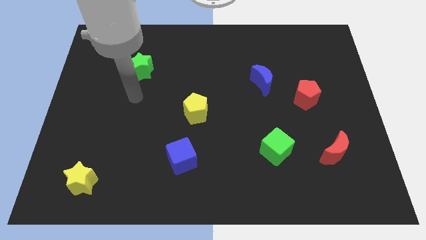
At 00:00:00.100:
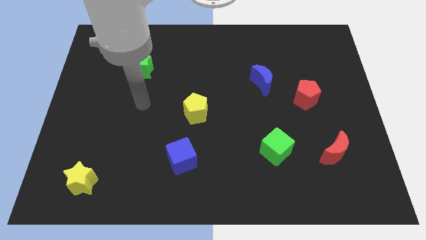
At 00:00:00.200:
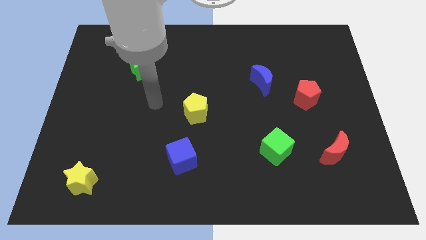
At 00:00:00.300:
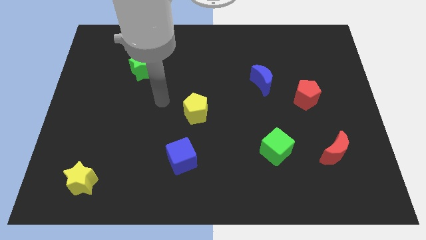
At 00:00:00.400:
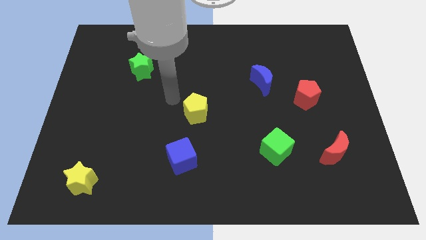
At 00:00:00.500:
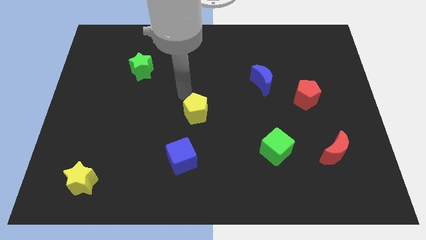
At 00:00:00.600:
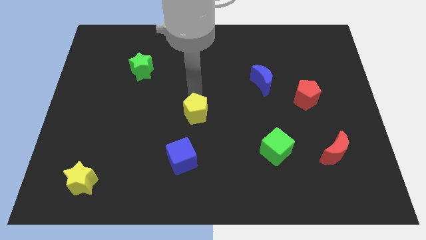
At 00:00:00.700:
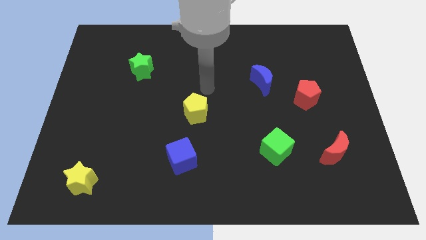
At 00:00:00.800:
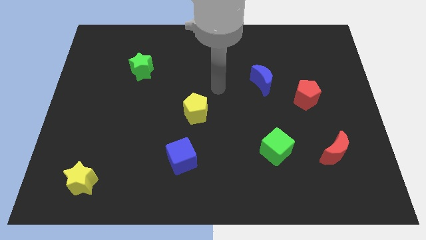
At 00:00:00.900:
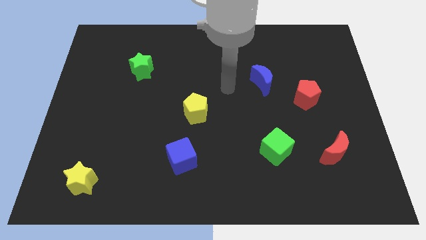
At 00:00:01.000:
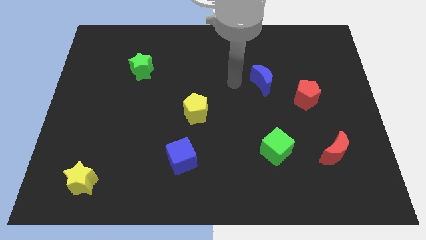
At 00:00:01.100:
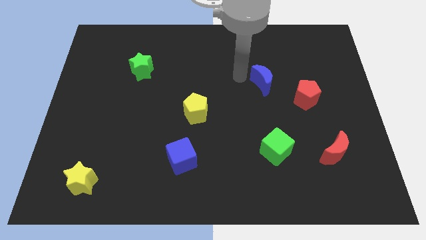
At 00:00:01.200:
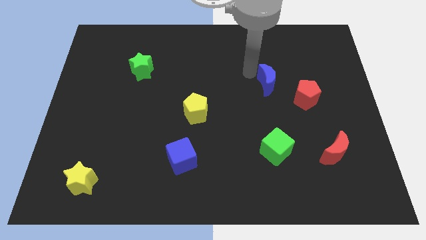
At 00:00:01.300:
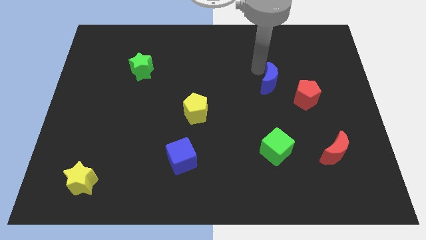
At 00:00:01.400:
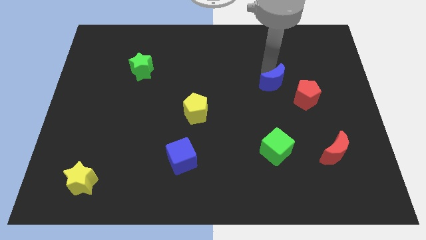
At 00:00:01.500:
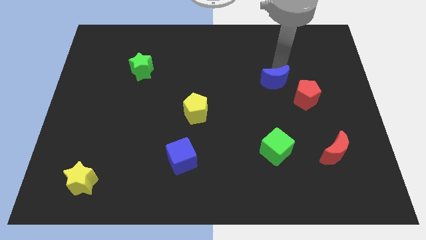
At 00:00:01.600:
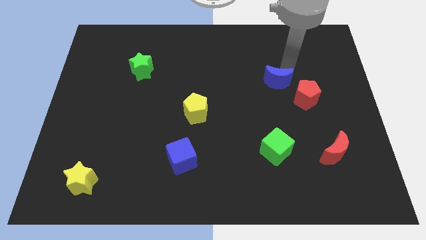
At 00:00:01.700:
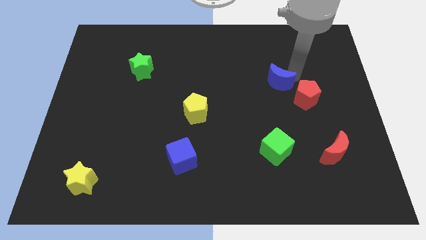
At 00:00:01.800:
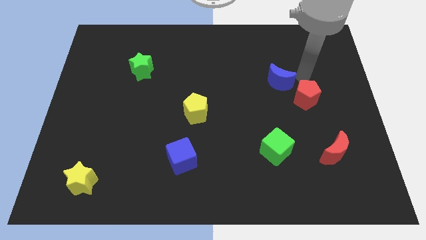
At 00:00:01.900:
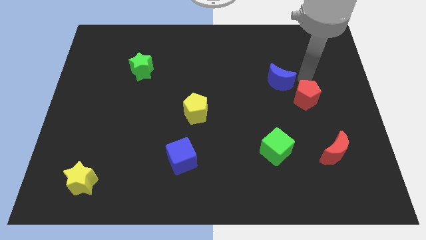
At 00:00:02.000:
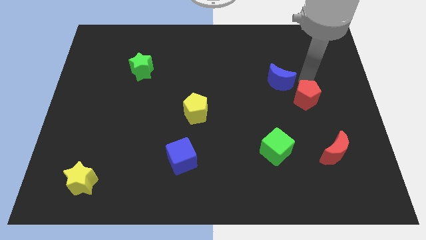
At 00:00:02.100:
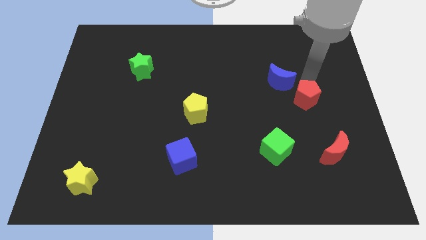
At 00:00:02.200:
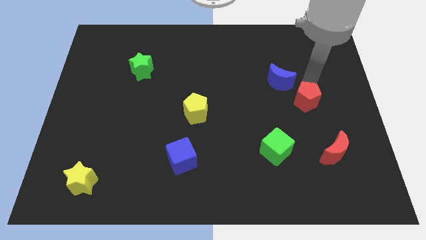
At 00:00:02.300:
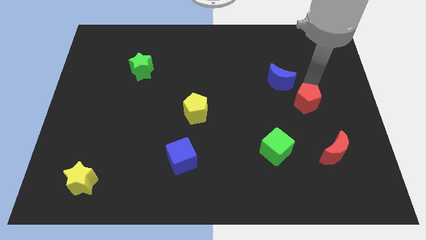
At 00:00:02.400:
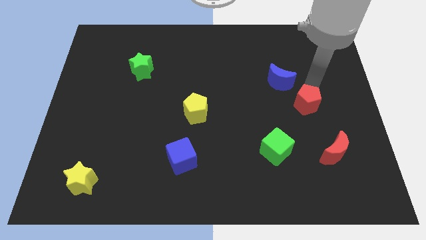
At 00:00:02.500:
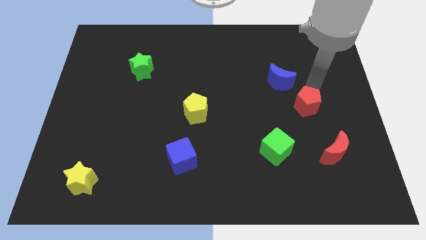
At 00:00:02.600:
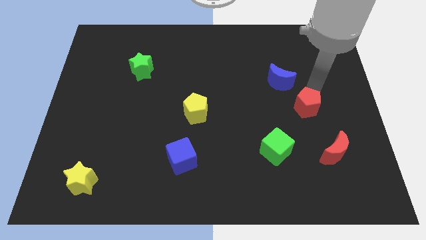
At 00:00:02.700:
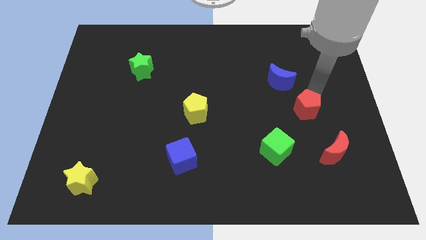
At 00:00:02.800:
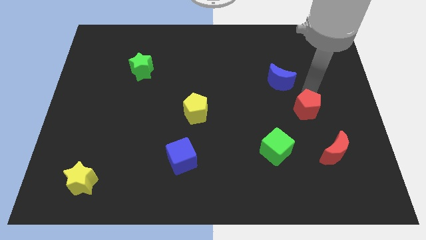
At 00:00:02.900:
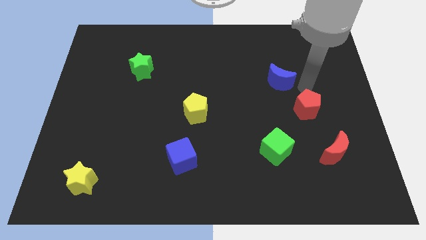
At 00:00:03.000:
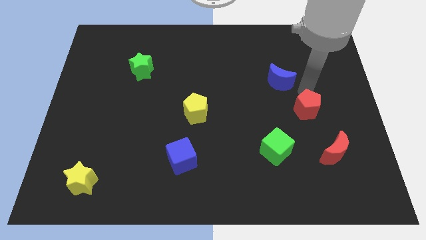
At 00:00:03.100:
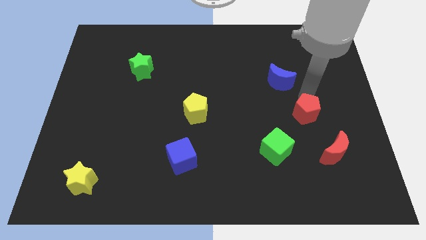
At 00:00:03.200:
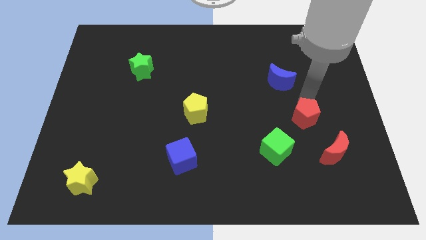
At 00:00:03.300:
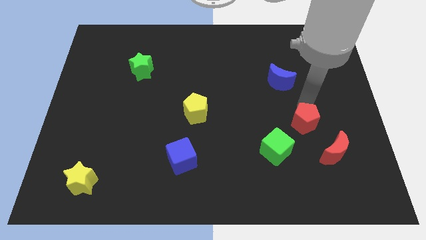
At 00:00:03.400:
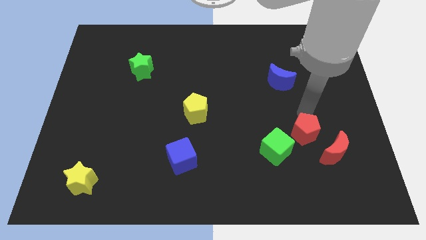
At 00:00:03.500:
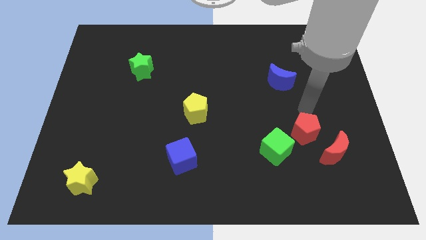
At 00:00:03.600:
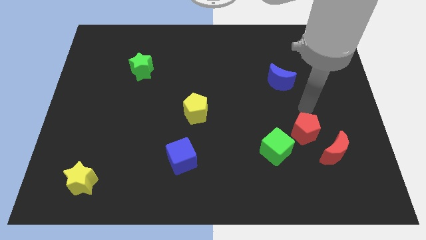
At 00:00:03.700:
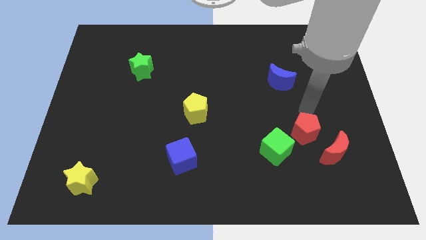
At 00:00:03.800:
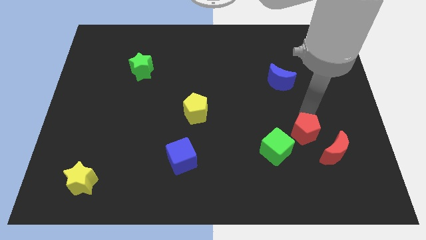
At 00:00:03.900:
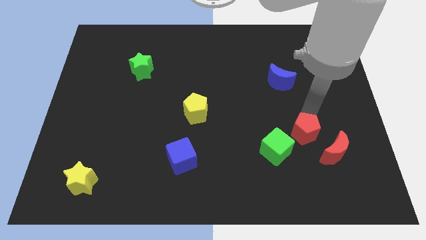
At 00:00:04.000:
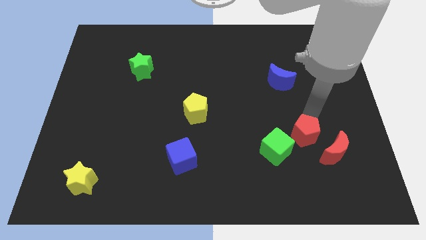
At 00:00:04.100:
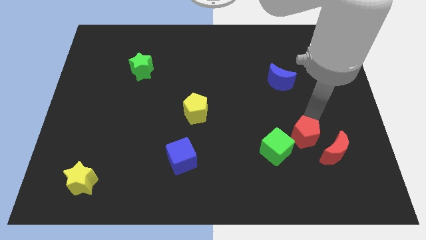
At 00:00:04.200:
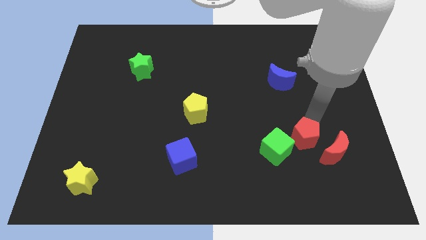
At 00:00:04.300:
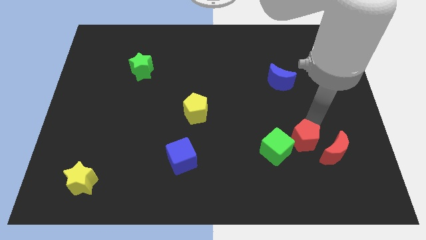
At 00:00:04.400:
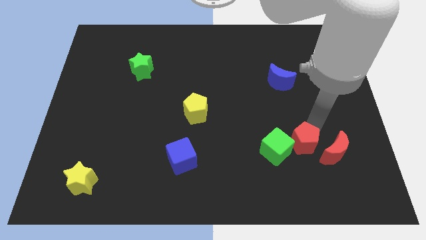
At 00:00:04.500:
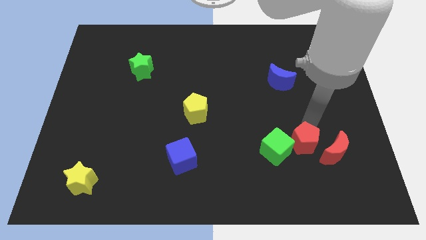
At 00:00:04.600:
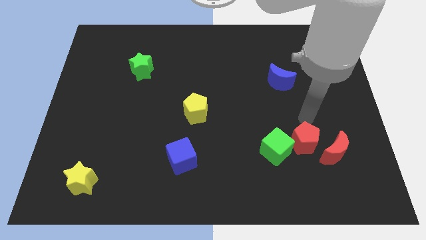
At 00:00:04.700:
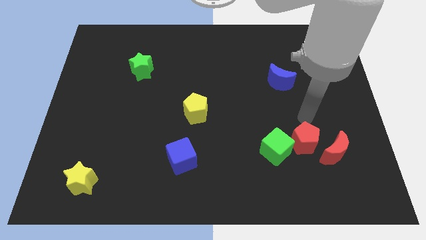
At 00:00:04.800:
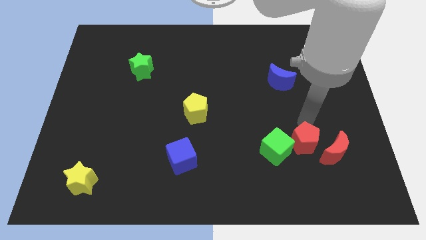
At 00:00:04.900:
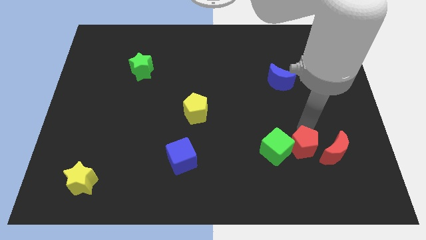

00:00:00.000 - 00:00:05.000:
slide the red pentagon to the bottom right of the green cube

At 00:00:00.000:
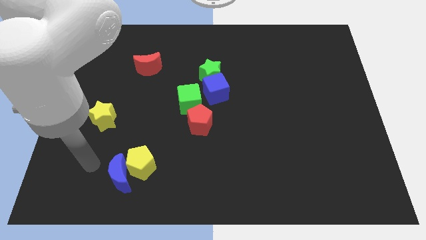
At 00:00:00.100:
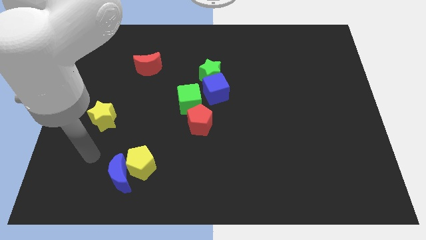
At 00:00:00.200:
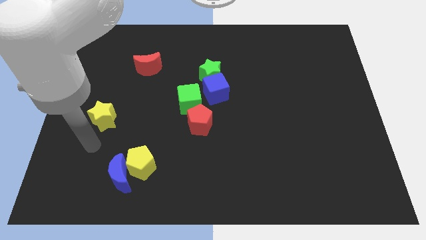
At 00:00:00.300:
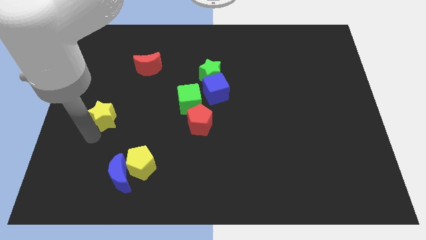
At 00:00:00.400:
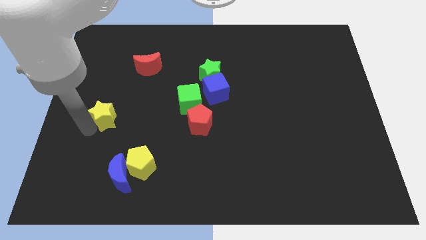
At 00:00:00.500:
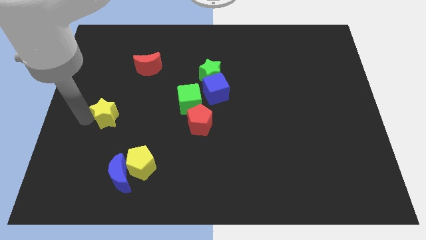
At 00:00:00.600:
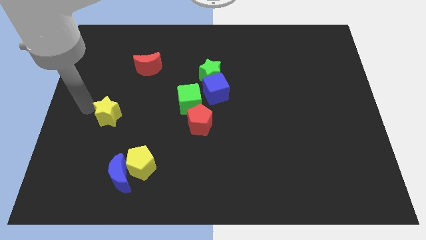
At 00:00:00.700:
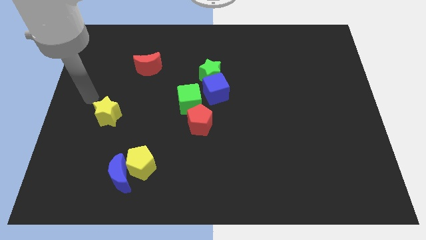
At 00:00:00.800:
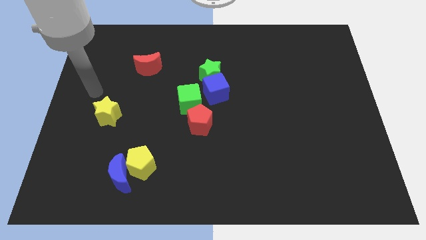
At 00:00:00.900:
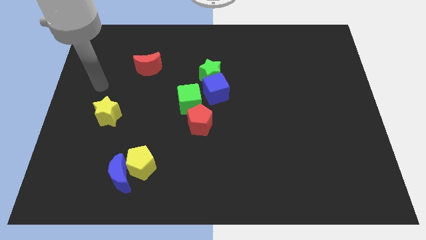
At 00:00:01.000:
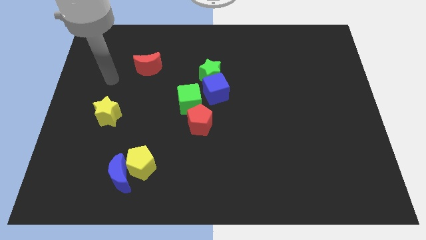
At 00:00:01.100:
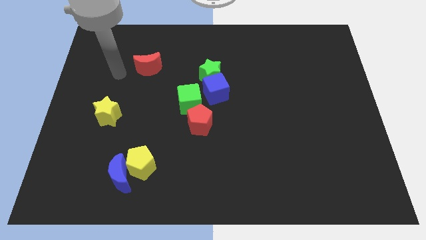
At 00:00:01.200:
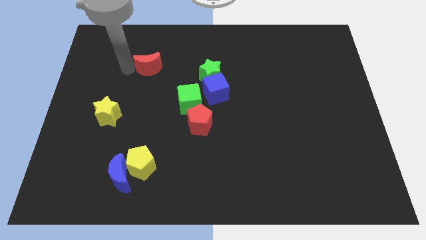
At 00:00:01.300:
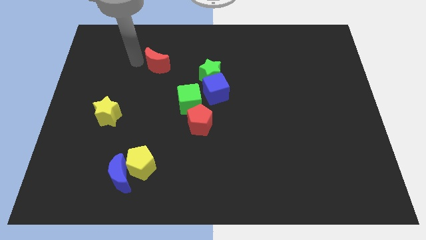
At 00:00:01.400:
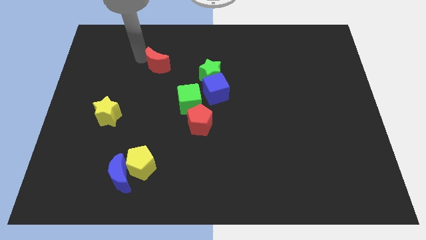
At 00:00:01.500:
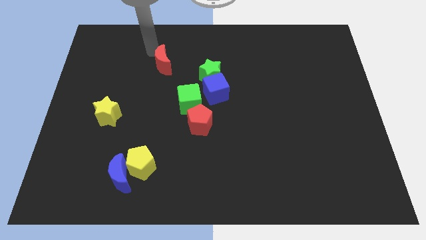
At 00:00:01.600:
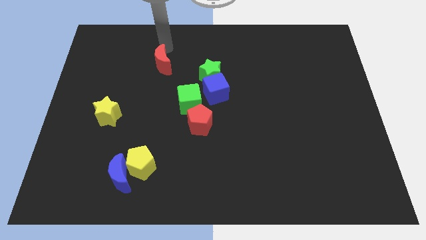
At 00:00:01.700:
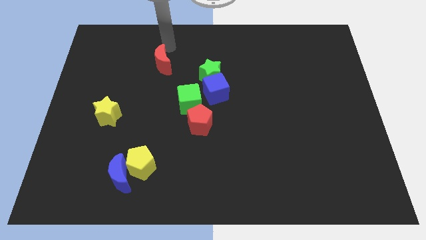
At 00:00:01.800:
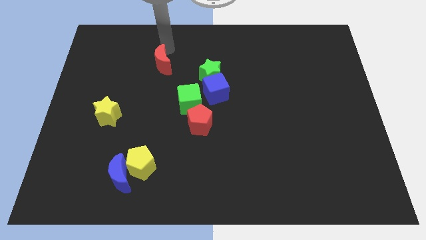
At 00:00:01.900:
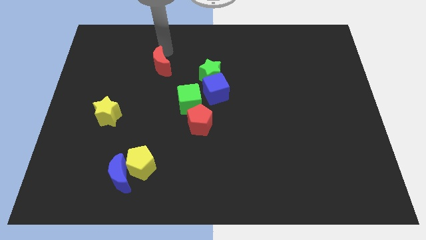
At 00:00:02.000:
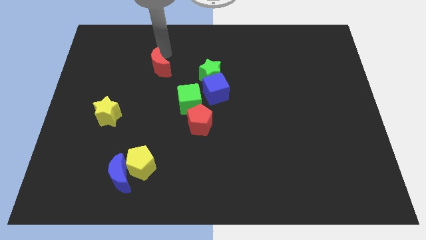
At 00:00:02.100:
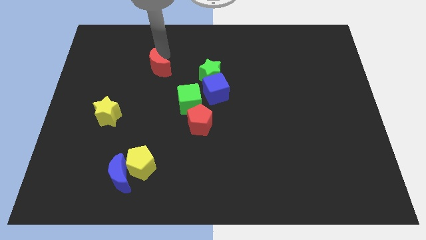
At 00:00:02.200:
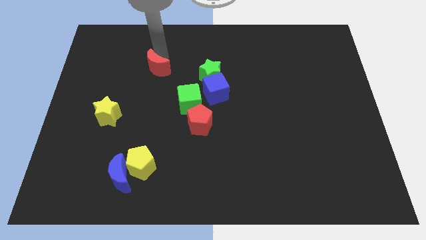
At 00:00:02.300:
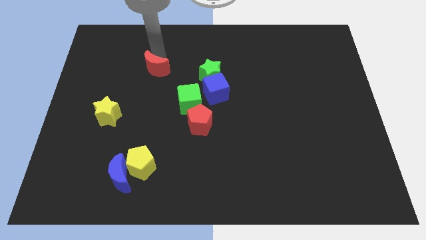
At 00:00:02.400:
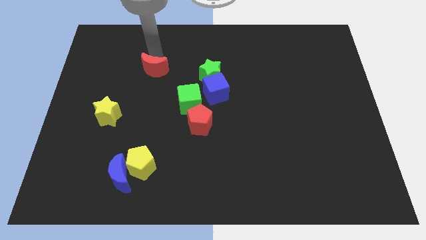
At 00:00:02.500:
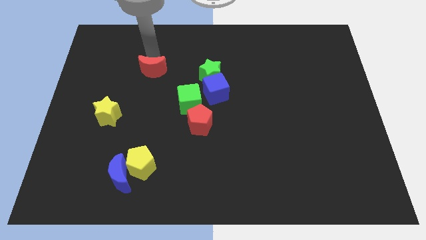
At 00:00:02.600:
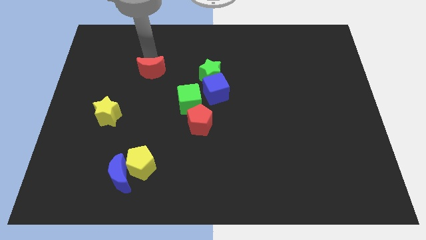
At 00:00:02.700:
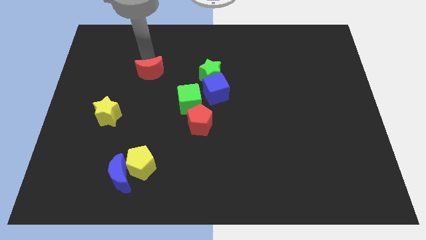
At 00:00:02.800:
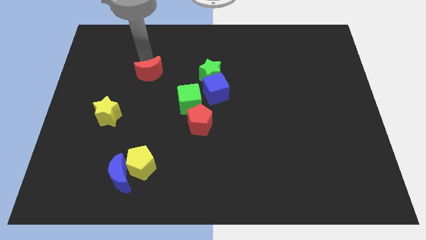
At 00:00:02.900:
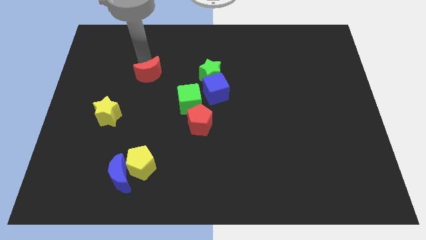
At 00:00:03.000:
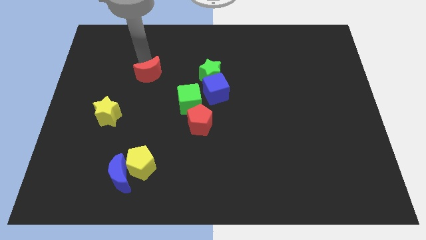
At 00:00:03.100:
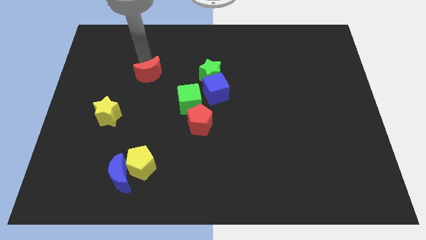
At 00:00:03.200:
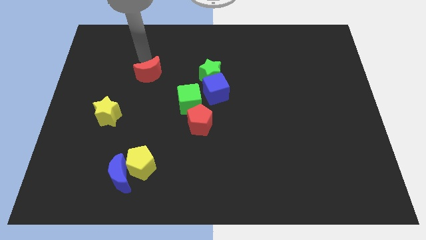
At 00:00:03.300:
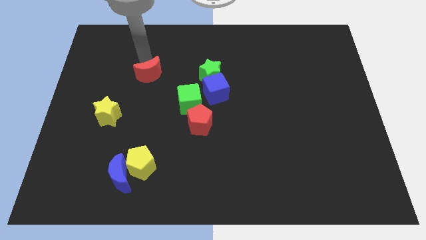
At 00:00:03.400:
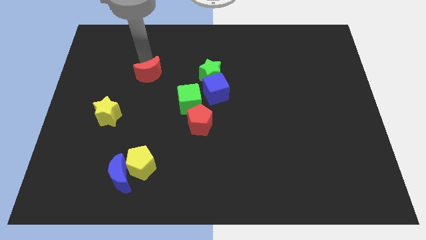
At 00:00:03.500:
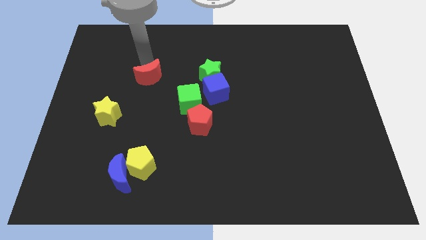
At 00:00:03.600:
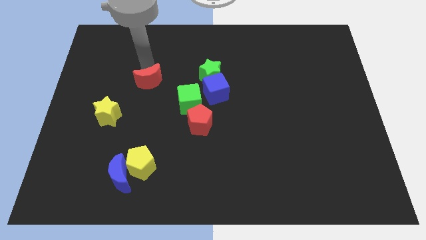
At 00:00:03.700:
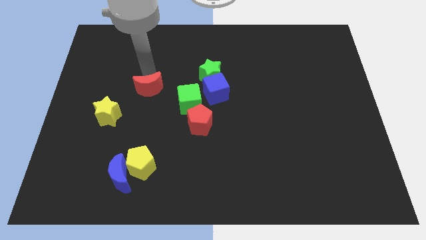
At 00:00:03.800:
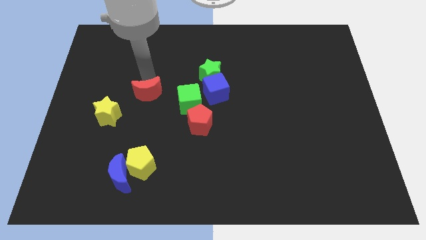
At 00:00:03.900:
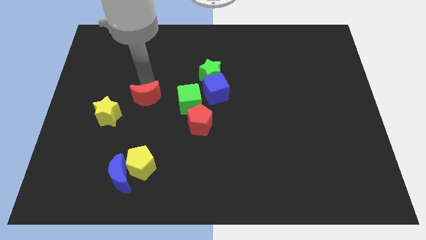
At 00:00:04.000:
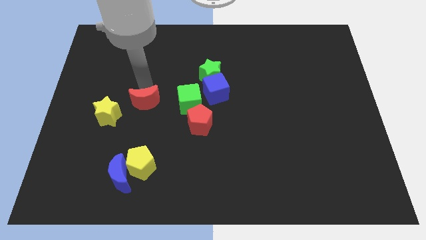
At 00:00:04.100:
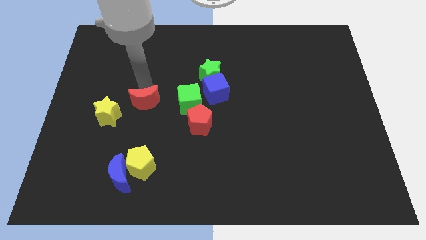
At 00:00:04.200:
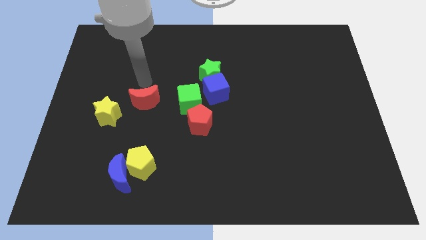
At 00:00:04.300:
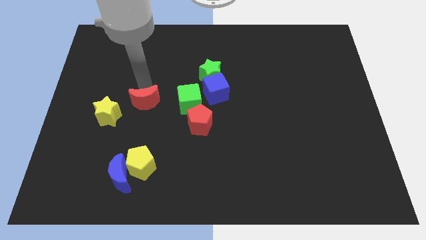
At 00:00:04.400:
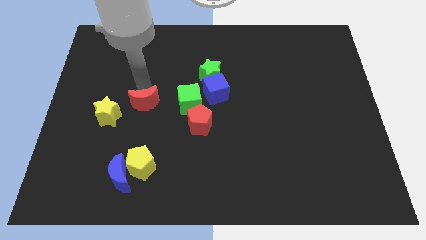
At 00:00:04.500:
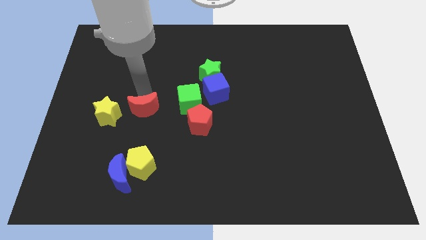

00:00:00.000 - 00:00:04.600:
push the red moon to the top of the yellow pentagon
